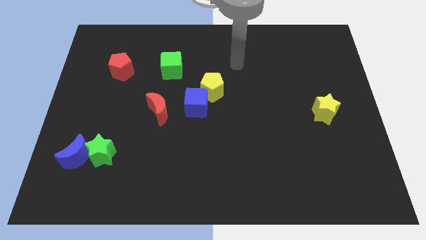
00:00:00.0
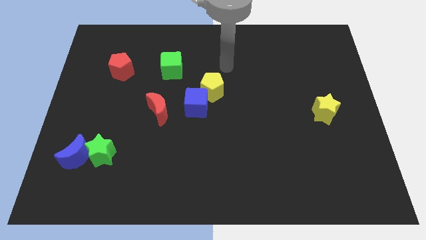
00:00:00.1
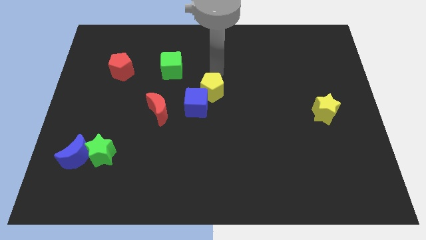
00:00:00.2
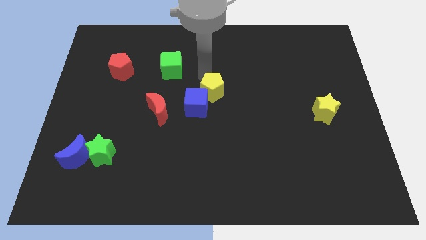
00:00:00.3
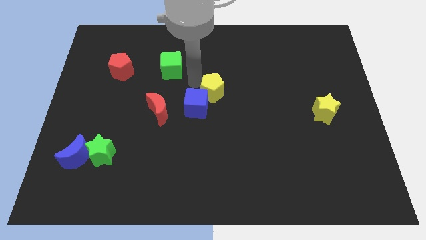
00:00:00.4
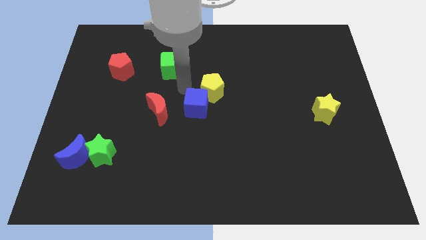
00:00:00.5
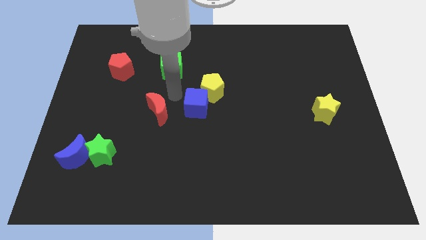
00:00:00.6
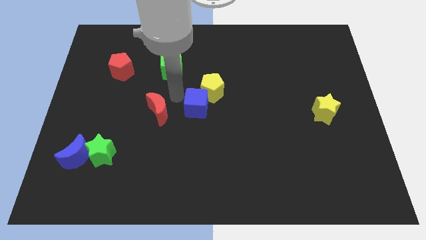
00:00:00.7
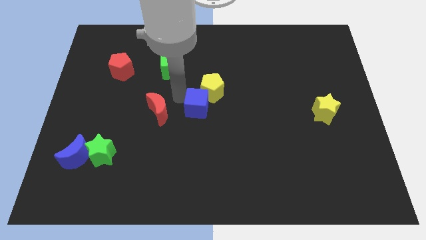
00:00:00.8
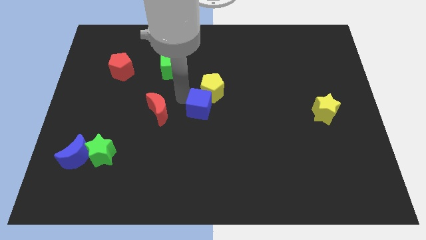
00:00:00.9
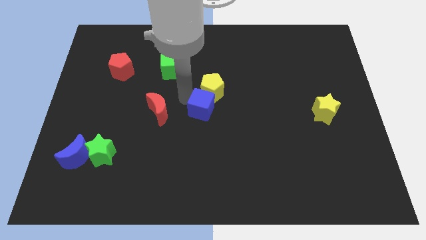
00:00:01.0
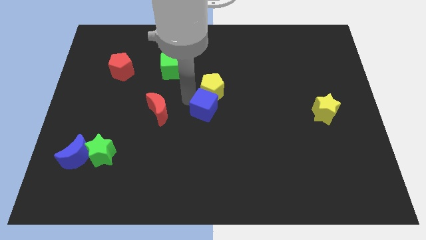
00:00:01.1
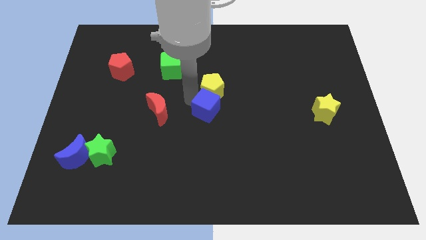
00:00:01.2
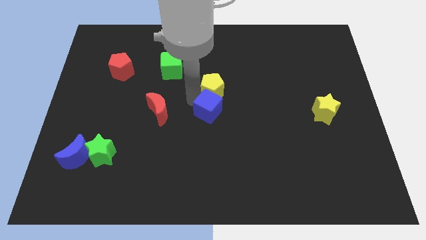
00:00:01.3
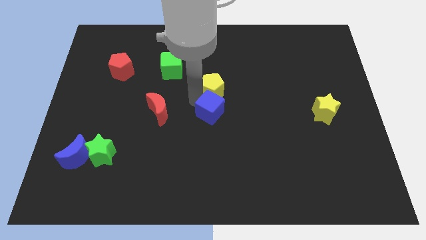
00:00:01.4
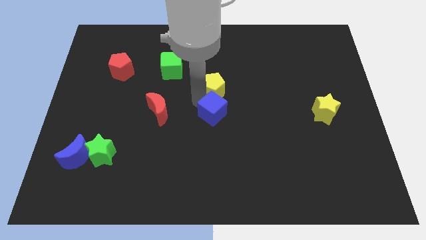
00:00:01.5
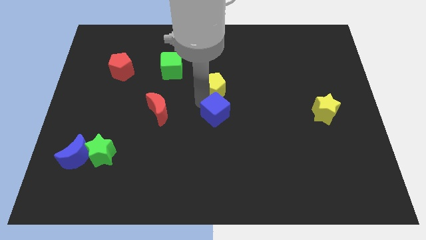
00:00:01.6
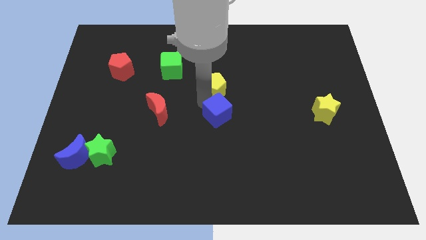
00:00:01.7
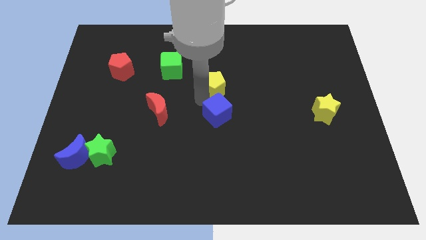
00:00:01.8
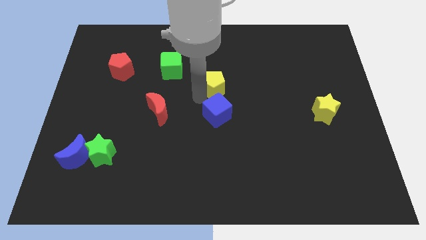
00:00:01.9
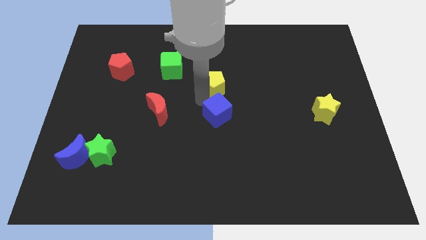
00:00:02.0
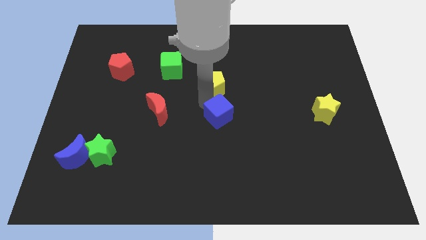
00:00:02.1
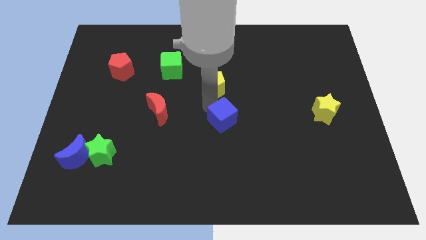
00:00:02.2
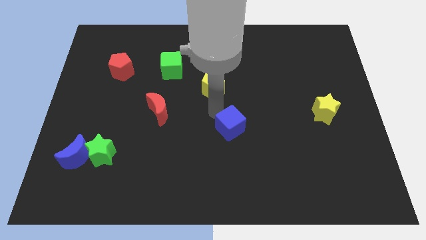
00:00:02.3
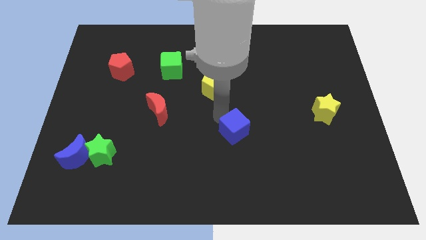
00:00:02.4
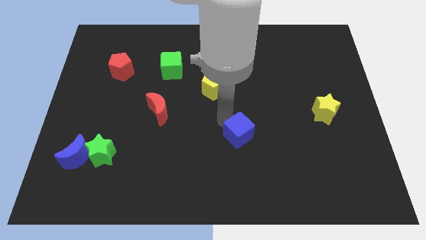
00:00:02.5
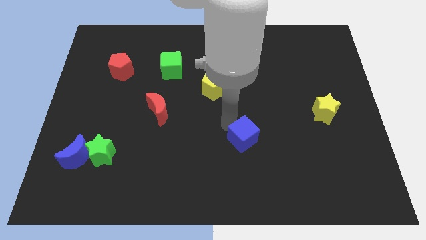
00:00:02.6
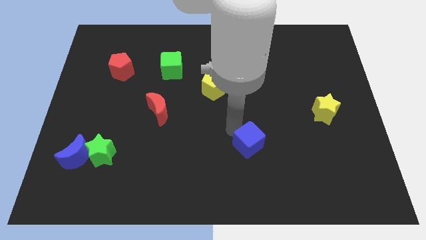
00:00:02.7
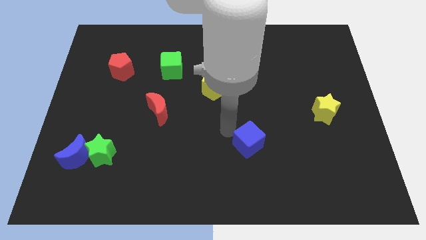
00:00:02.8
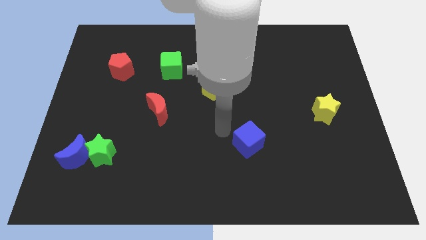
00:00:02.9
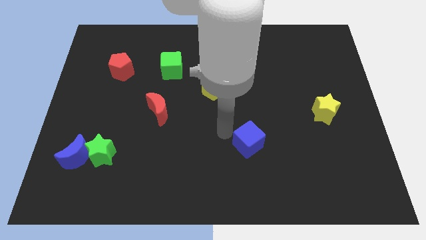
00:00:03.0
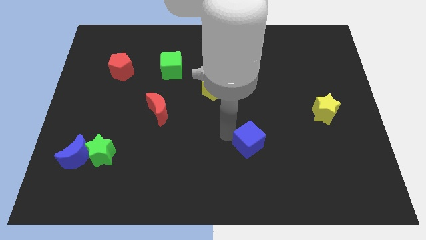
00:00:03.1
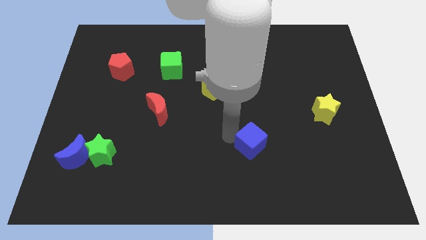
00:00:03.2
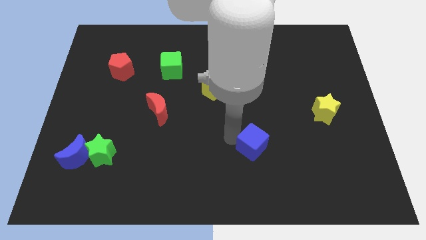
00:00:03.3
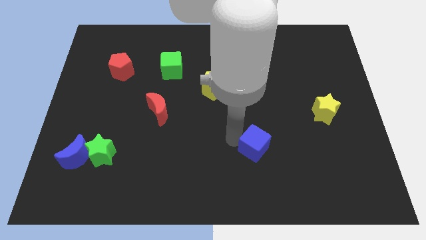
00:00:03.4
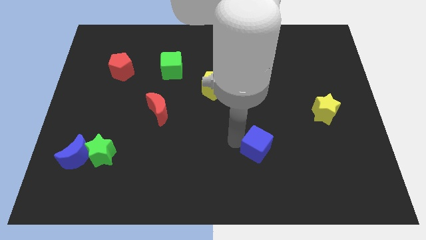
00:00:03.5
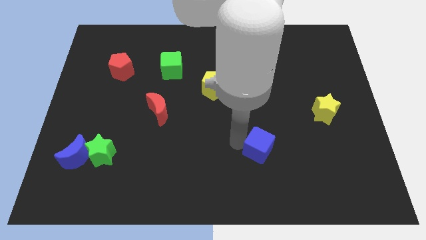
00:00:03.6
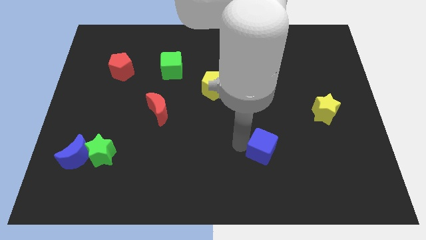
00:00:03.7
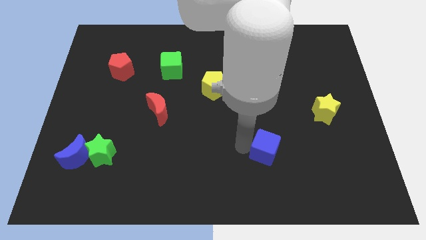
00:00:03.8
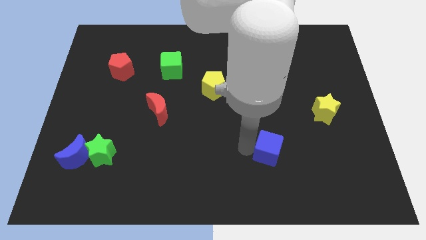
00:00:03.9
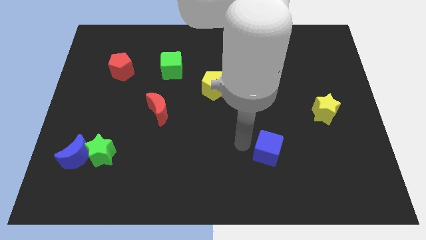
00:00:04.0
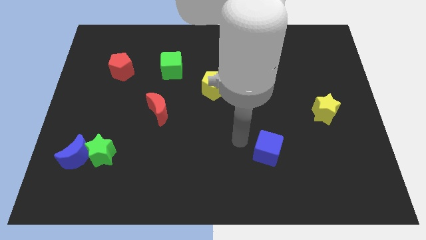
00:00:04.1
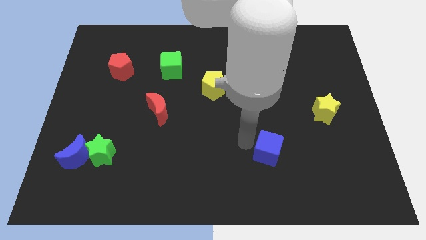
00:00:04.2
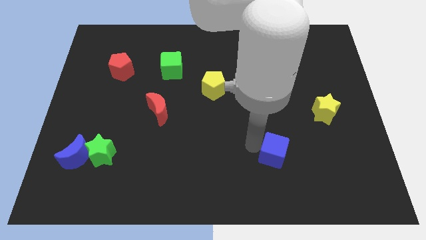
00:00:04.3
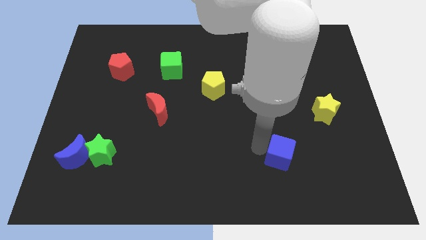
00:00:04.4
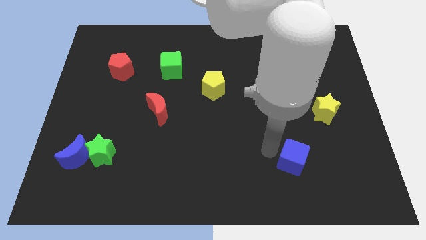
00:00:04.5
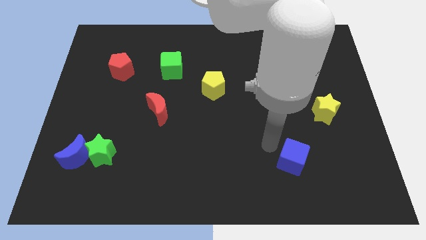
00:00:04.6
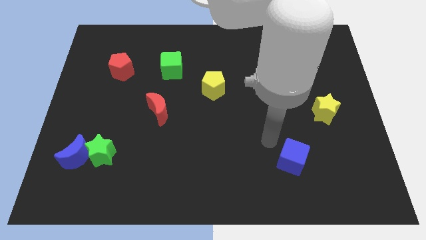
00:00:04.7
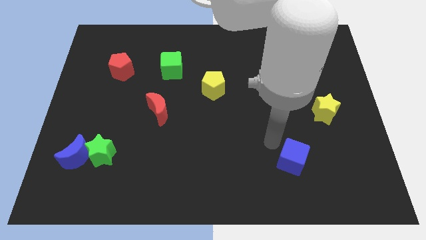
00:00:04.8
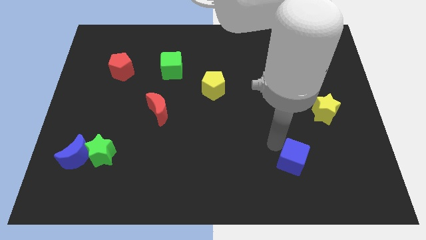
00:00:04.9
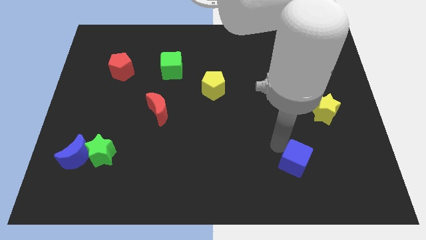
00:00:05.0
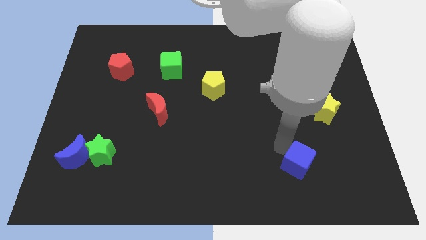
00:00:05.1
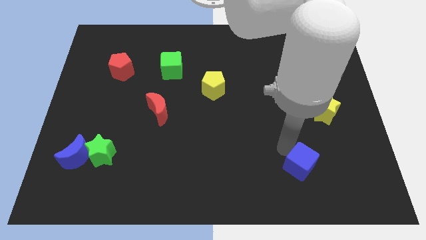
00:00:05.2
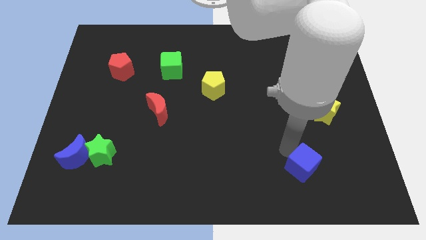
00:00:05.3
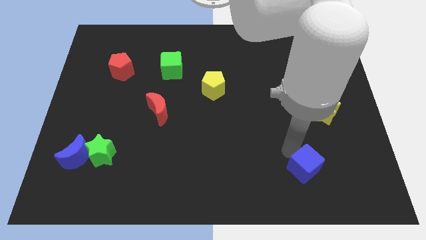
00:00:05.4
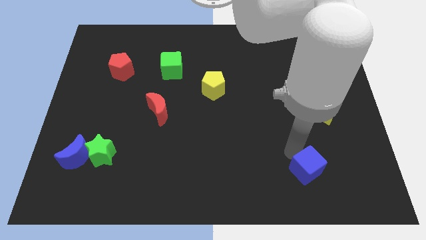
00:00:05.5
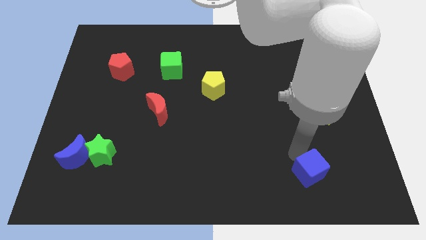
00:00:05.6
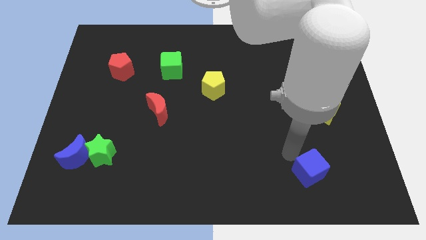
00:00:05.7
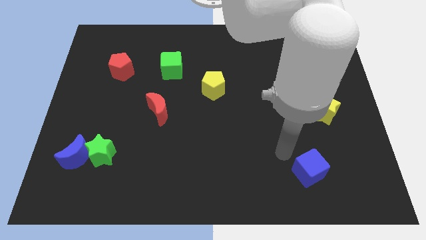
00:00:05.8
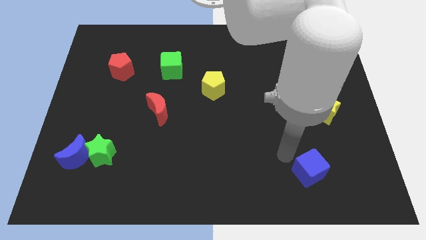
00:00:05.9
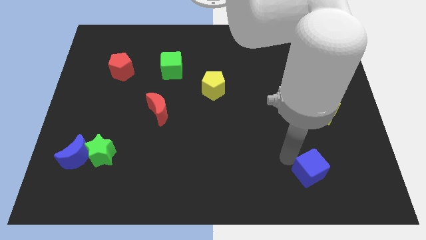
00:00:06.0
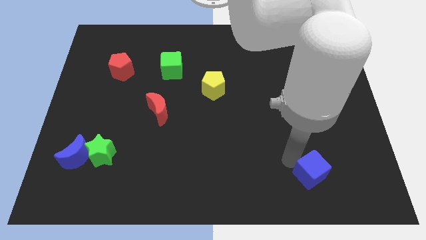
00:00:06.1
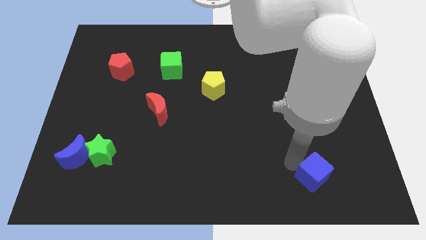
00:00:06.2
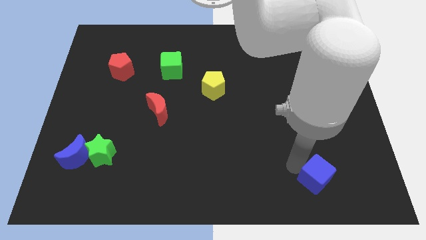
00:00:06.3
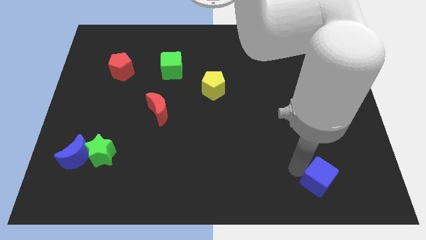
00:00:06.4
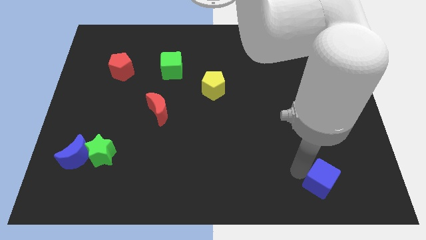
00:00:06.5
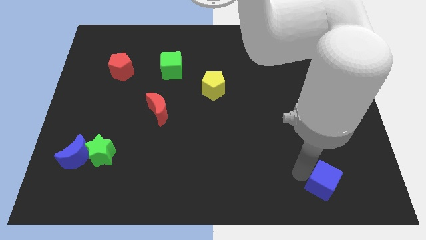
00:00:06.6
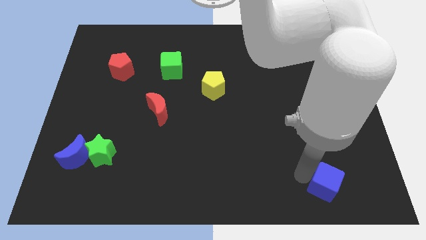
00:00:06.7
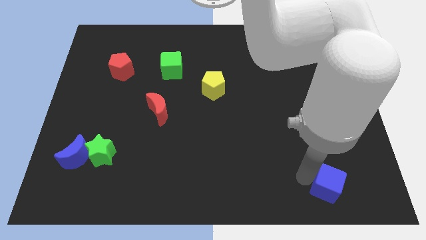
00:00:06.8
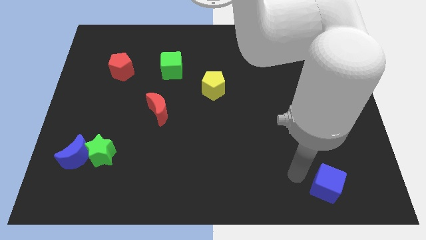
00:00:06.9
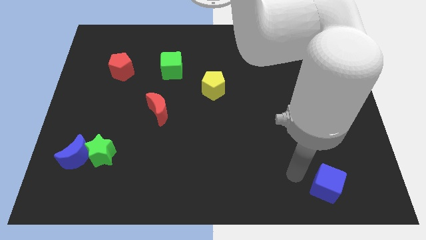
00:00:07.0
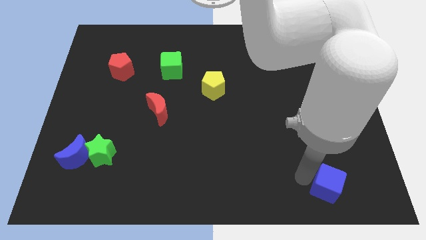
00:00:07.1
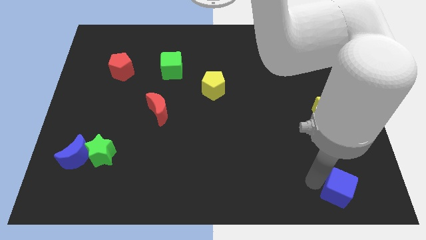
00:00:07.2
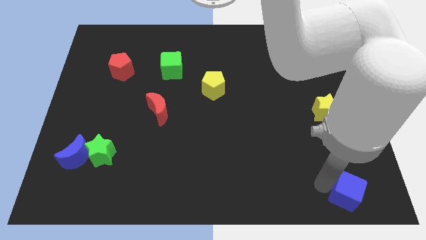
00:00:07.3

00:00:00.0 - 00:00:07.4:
push the blue cube to the bottom right of the board
